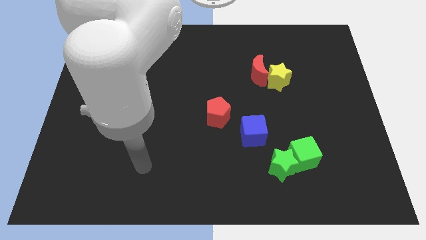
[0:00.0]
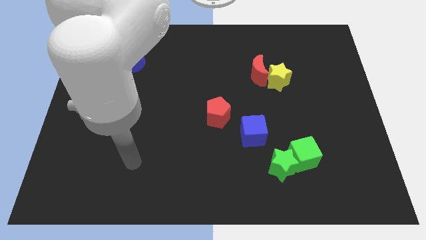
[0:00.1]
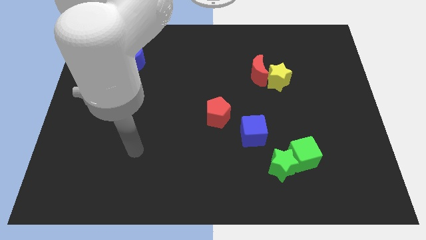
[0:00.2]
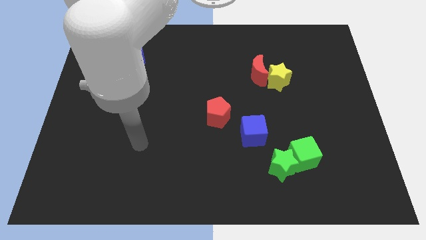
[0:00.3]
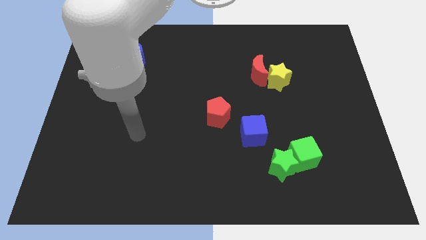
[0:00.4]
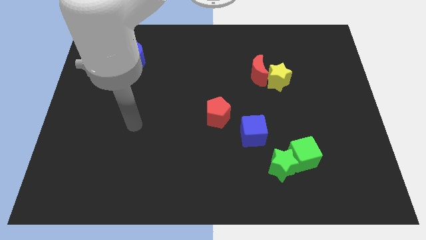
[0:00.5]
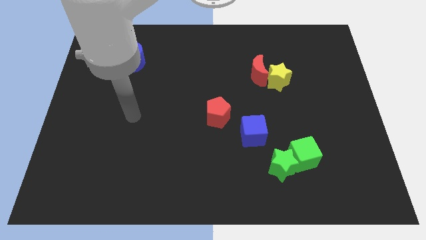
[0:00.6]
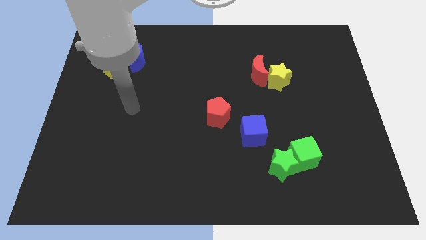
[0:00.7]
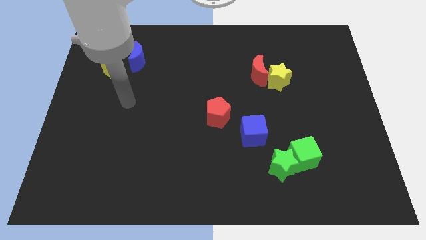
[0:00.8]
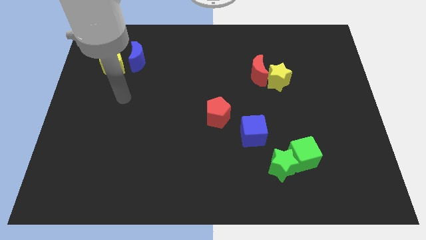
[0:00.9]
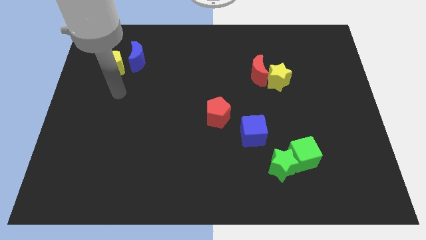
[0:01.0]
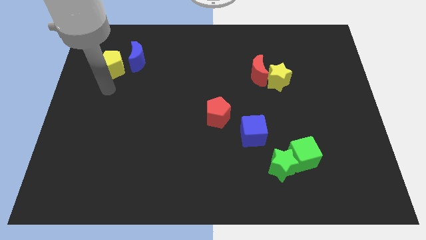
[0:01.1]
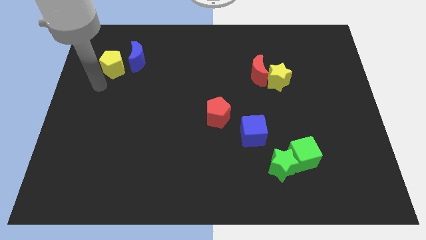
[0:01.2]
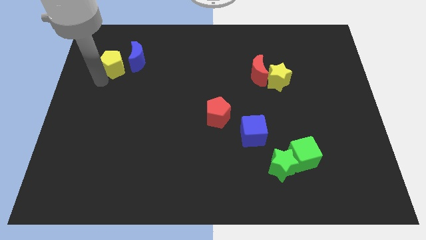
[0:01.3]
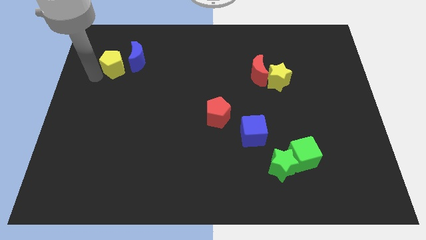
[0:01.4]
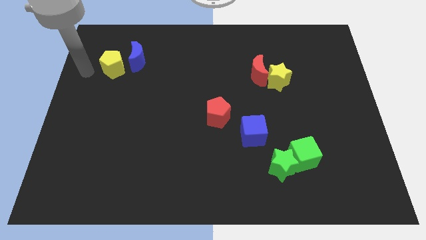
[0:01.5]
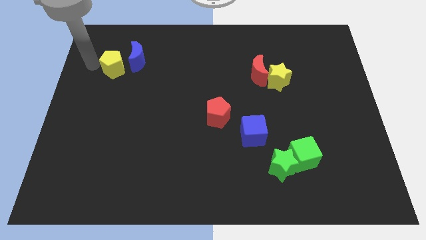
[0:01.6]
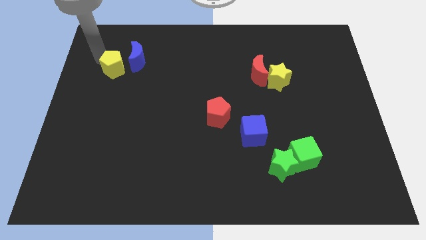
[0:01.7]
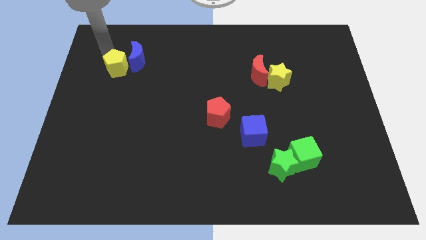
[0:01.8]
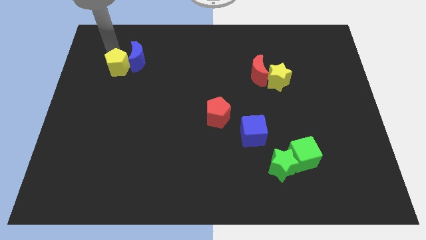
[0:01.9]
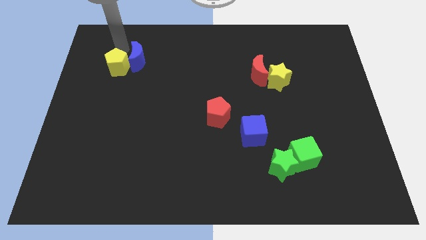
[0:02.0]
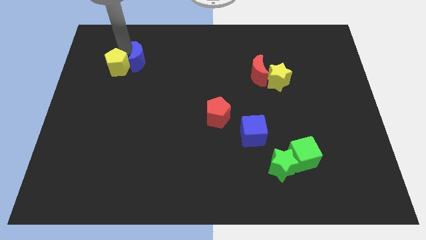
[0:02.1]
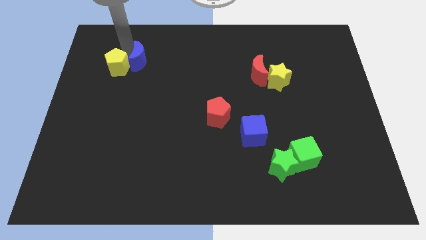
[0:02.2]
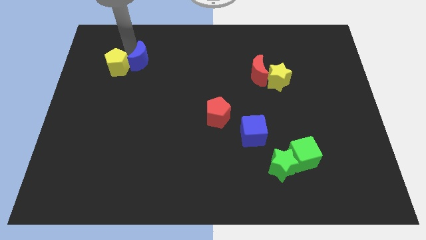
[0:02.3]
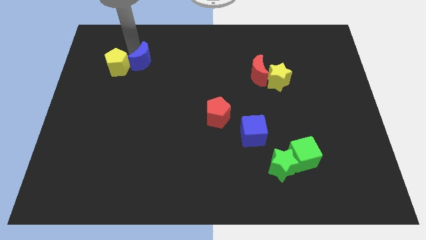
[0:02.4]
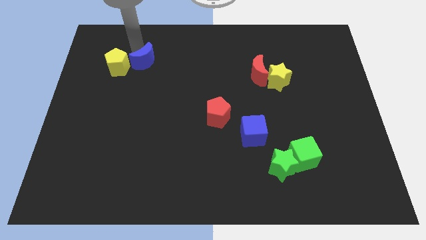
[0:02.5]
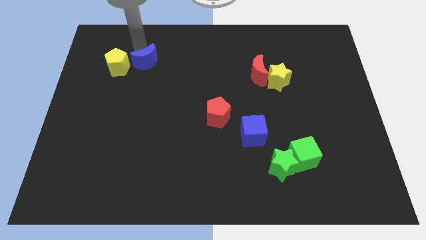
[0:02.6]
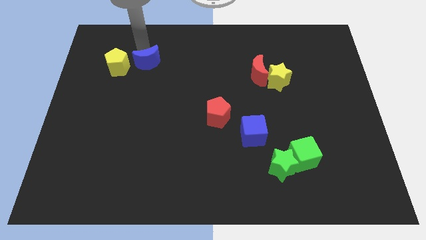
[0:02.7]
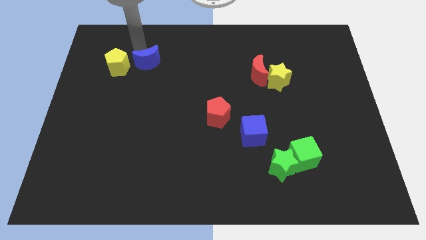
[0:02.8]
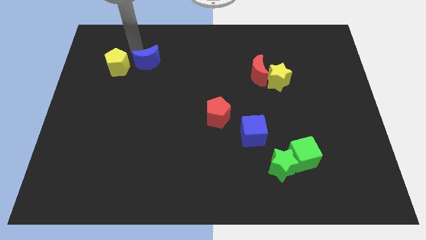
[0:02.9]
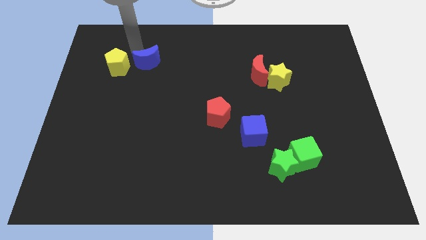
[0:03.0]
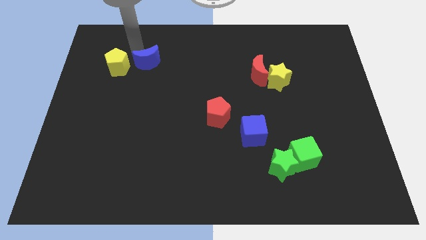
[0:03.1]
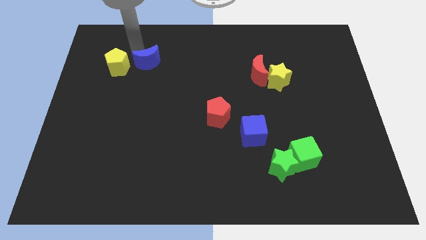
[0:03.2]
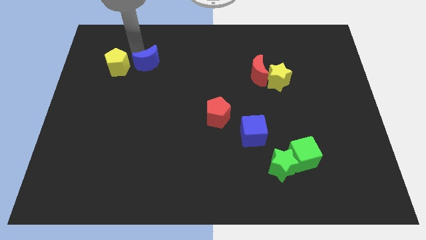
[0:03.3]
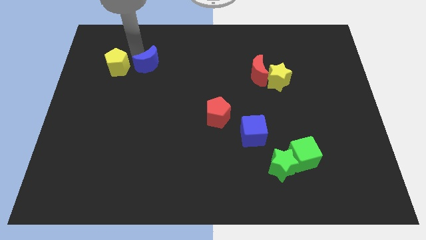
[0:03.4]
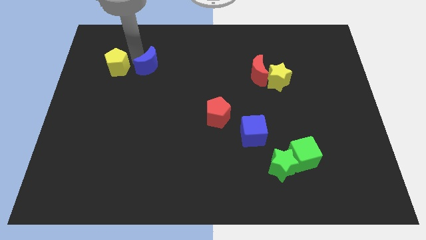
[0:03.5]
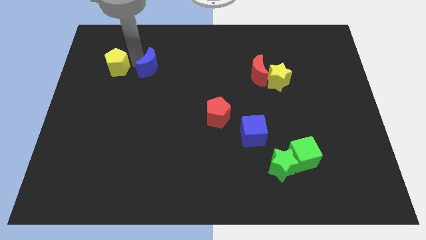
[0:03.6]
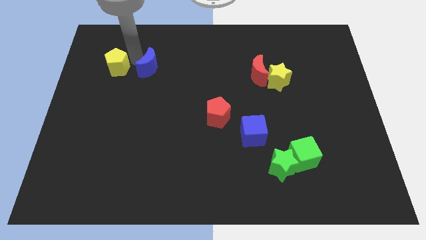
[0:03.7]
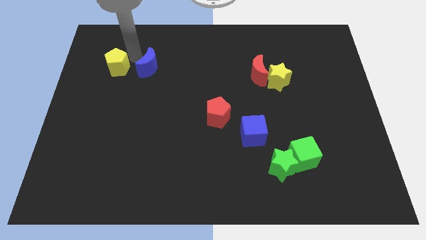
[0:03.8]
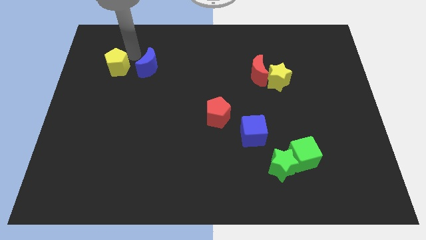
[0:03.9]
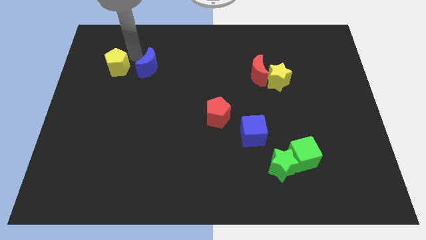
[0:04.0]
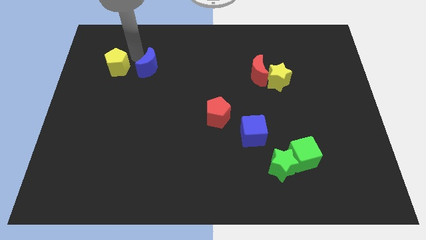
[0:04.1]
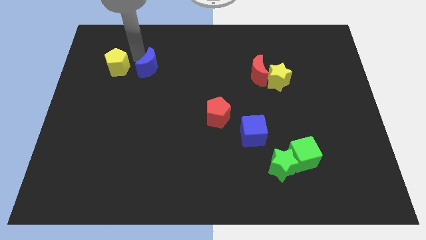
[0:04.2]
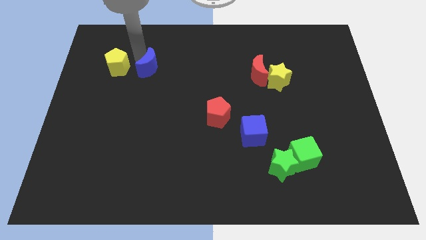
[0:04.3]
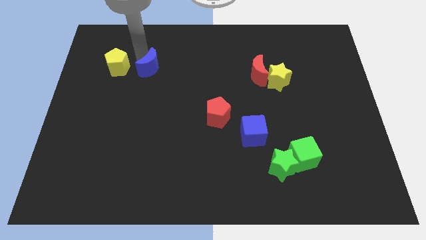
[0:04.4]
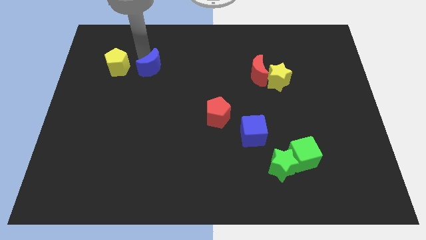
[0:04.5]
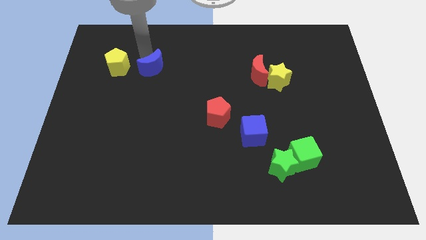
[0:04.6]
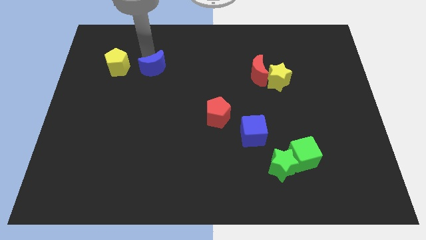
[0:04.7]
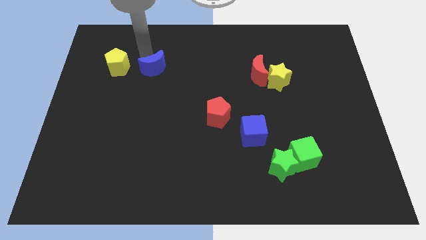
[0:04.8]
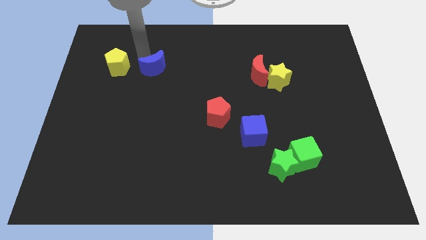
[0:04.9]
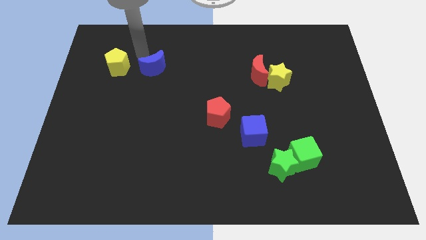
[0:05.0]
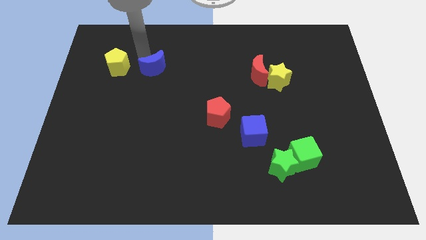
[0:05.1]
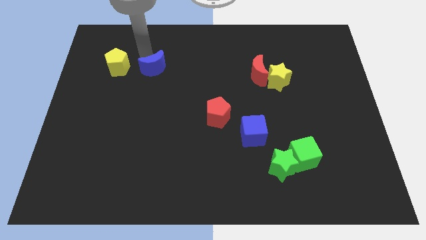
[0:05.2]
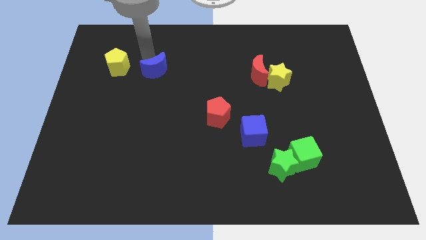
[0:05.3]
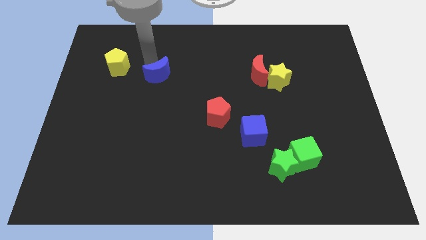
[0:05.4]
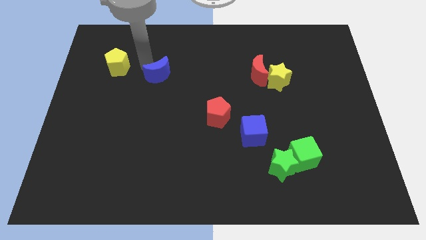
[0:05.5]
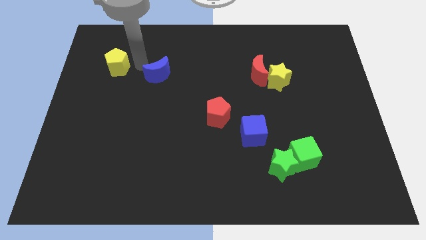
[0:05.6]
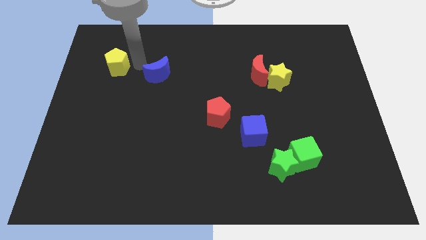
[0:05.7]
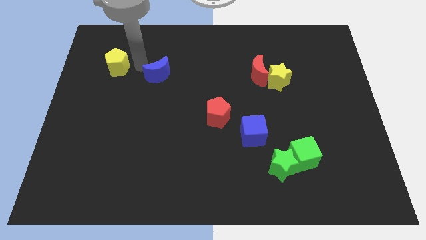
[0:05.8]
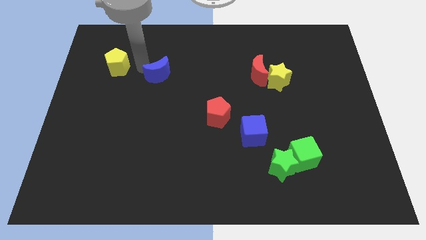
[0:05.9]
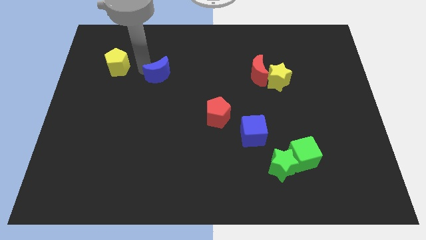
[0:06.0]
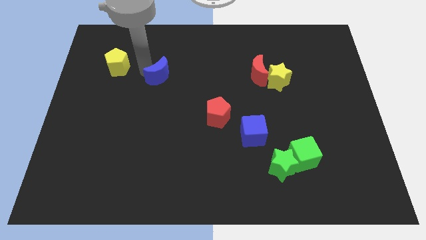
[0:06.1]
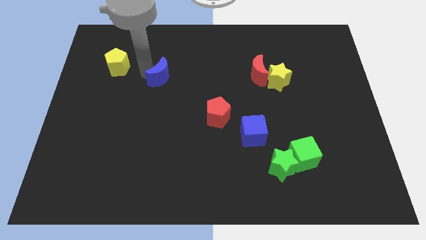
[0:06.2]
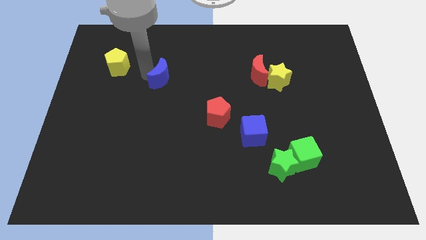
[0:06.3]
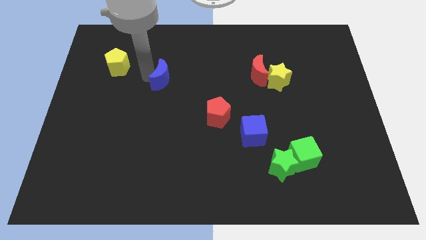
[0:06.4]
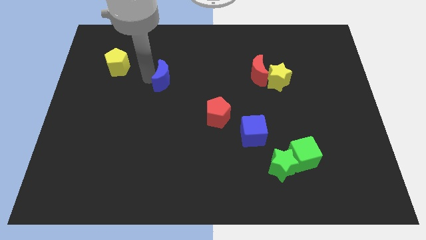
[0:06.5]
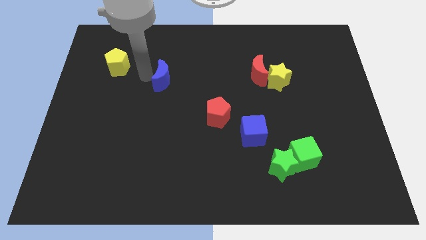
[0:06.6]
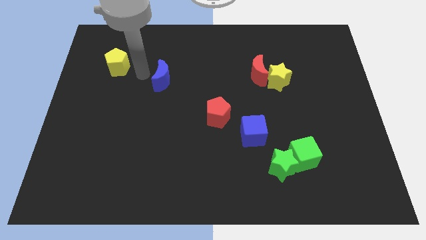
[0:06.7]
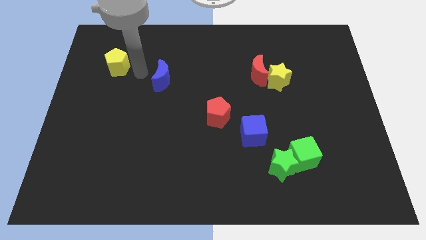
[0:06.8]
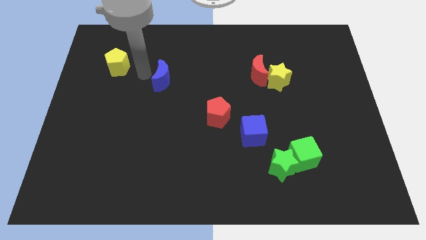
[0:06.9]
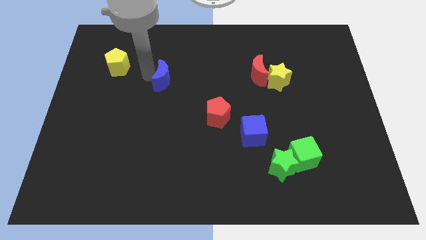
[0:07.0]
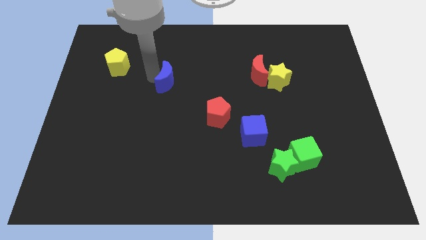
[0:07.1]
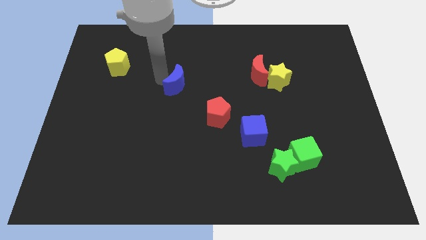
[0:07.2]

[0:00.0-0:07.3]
move the blue moon to the middle of the board
